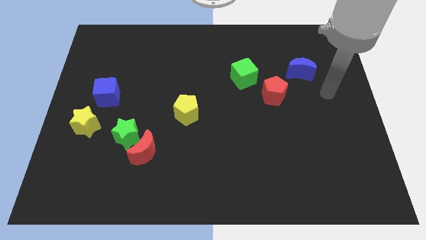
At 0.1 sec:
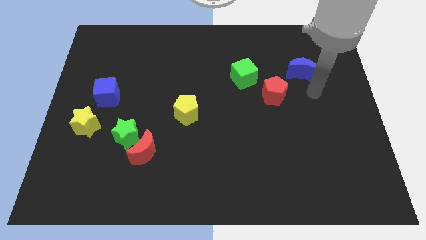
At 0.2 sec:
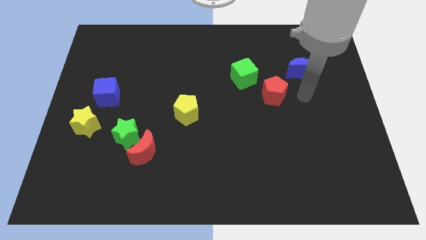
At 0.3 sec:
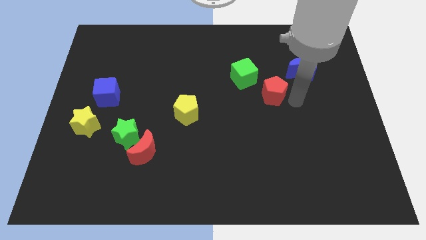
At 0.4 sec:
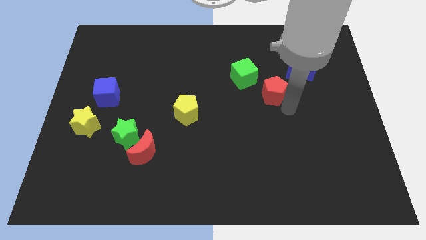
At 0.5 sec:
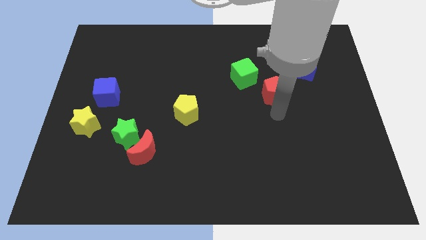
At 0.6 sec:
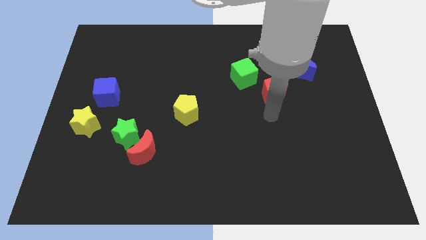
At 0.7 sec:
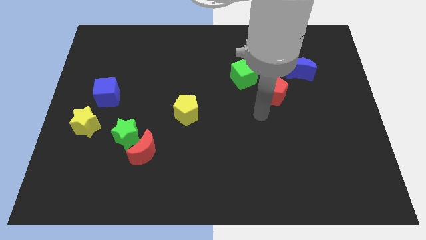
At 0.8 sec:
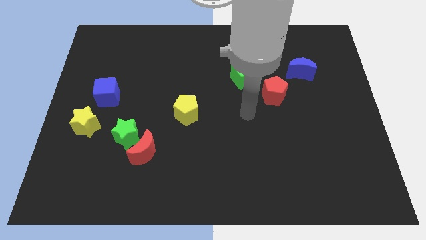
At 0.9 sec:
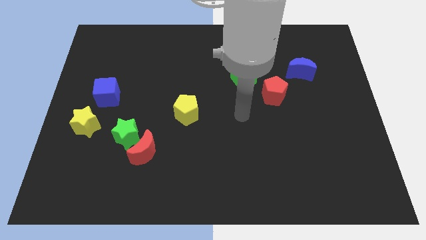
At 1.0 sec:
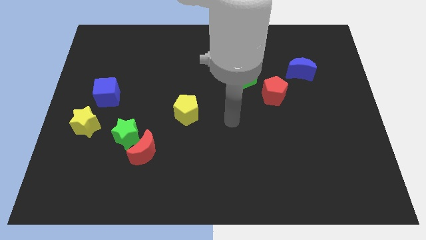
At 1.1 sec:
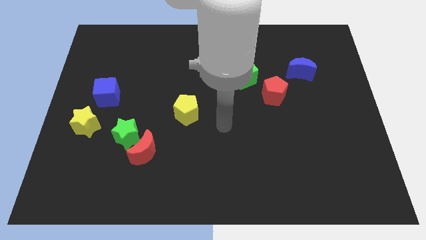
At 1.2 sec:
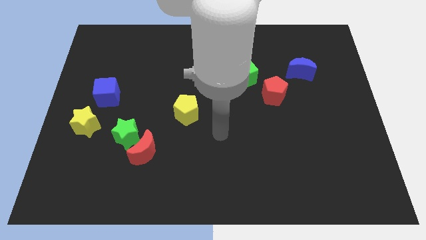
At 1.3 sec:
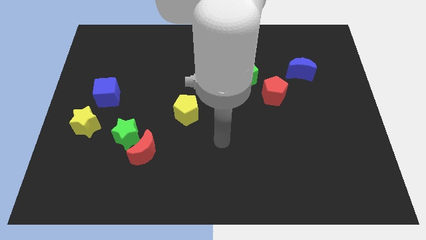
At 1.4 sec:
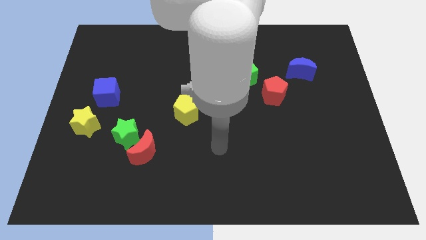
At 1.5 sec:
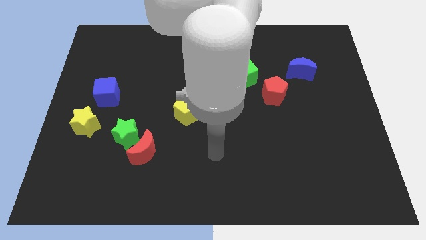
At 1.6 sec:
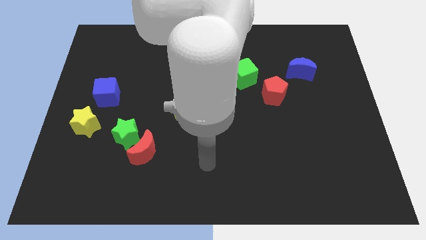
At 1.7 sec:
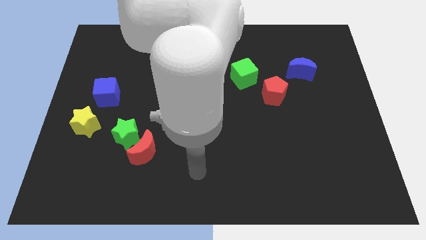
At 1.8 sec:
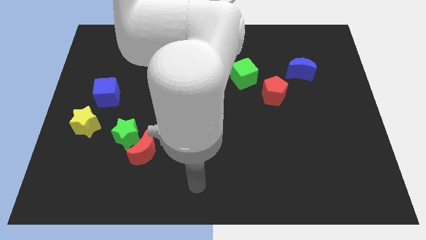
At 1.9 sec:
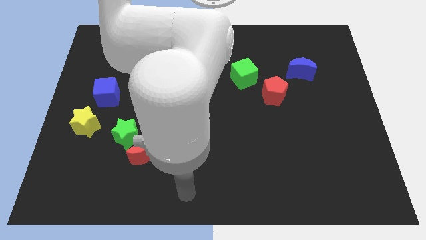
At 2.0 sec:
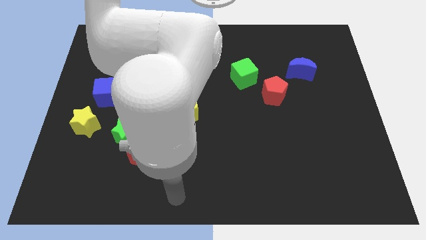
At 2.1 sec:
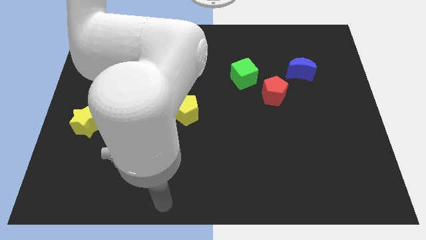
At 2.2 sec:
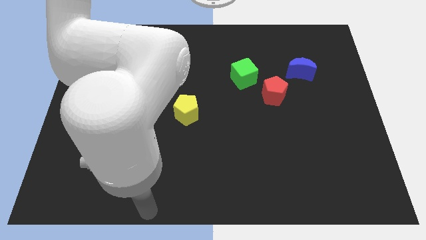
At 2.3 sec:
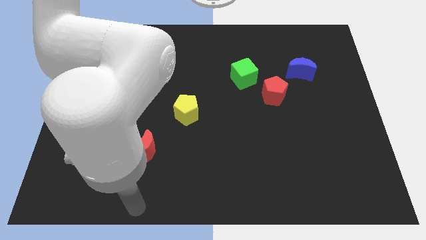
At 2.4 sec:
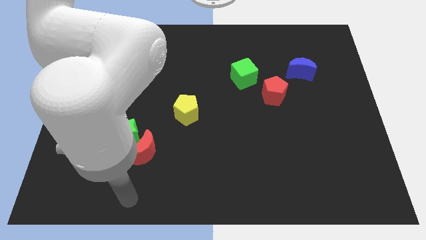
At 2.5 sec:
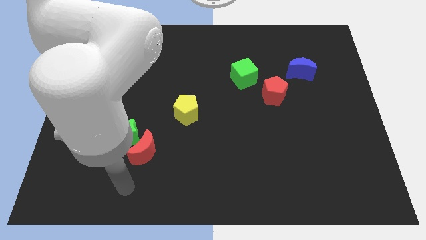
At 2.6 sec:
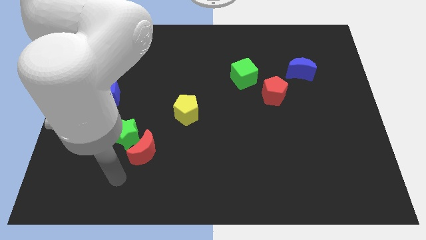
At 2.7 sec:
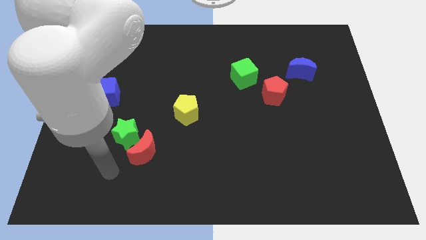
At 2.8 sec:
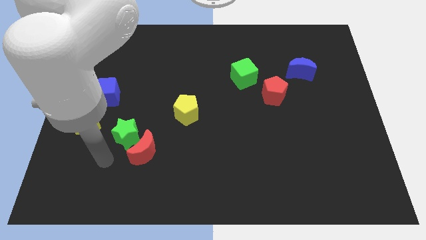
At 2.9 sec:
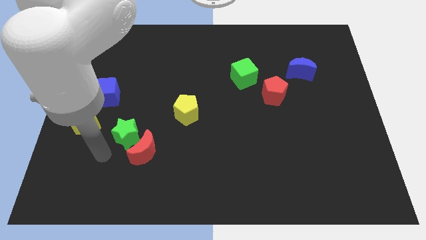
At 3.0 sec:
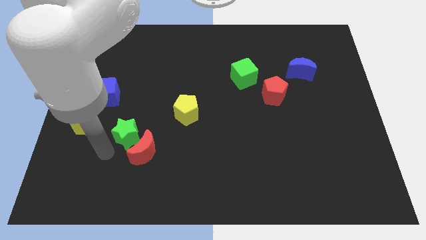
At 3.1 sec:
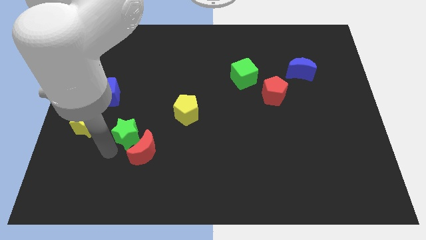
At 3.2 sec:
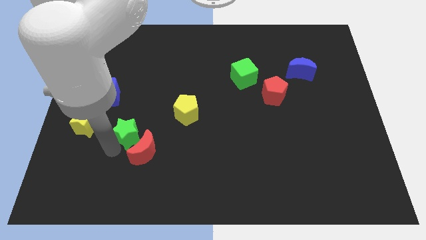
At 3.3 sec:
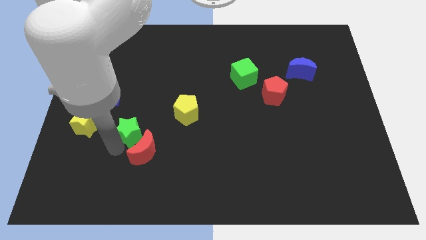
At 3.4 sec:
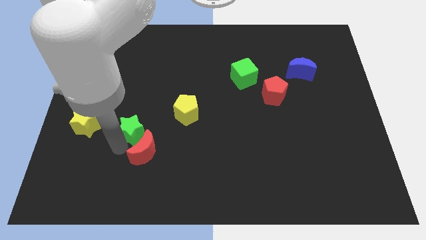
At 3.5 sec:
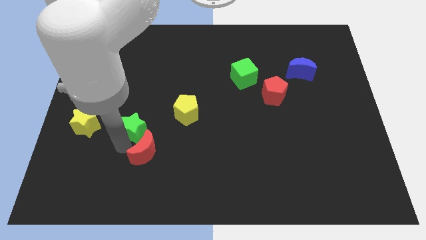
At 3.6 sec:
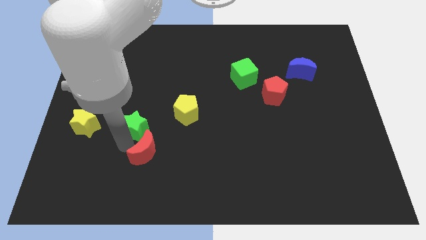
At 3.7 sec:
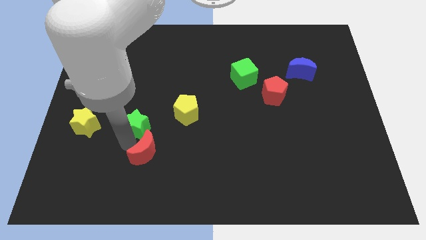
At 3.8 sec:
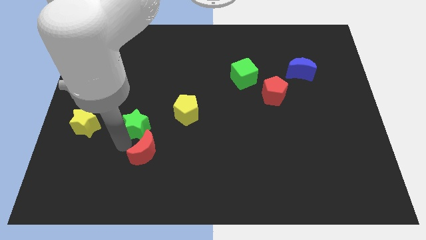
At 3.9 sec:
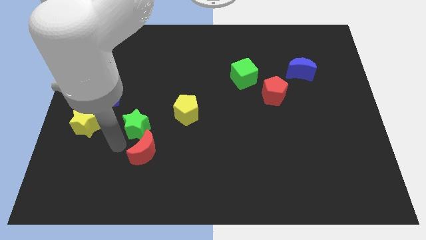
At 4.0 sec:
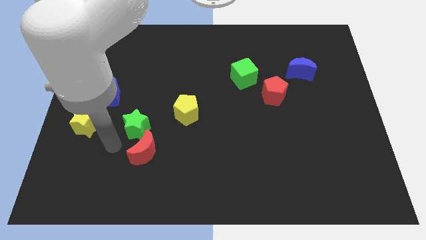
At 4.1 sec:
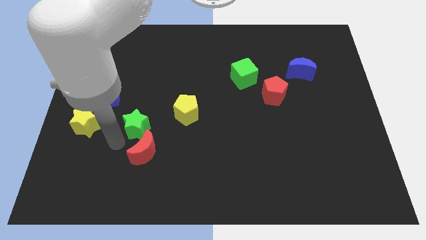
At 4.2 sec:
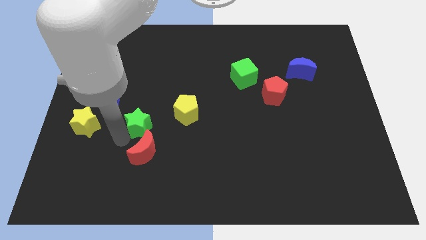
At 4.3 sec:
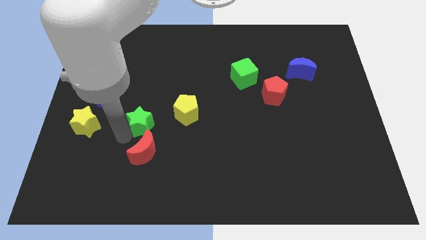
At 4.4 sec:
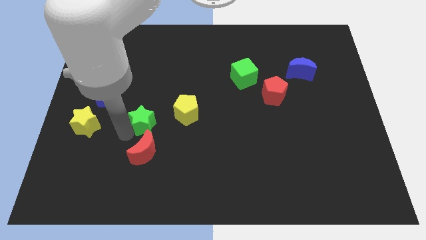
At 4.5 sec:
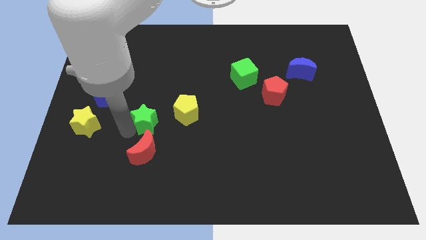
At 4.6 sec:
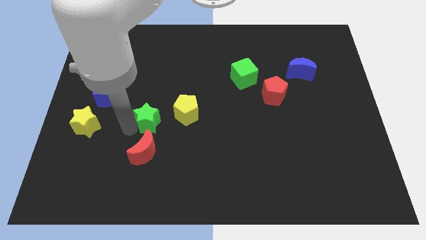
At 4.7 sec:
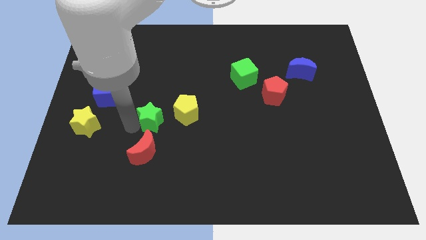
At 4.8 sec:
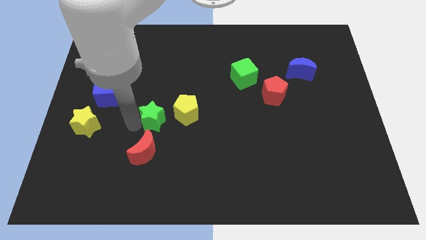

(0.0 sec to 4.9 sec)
slide the green star up and right somewhat

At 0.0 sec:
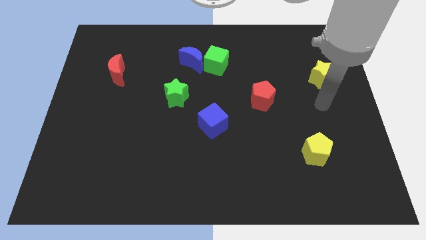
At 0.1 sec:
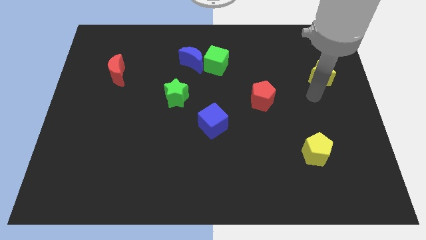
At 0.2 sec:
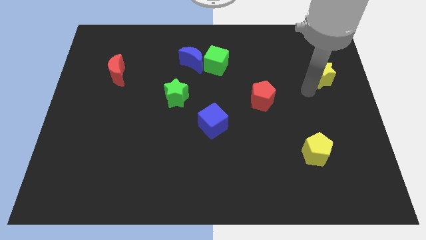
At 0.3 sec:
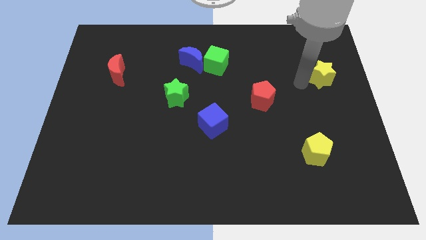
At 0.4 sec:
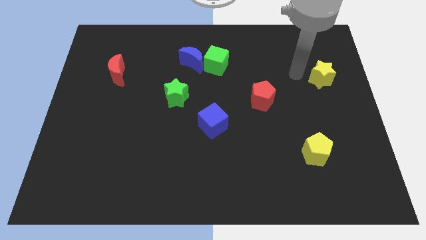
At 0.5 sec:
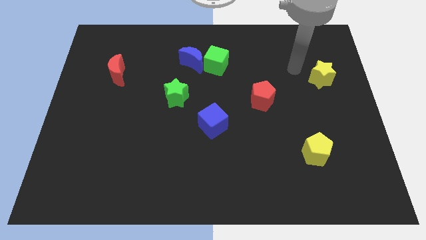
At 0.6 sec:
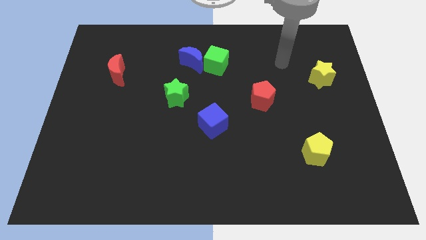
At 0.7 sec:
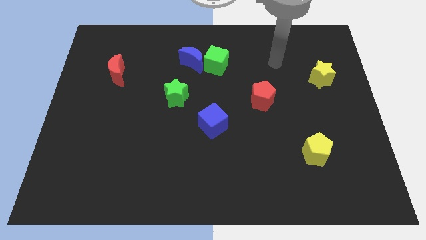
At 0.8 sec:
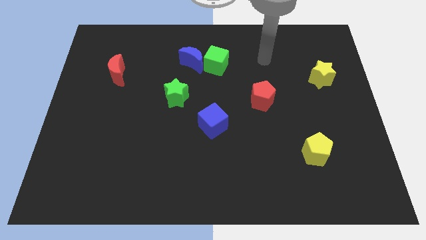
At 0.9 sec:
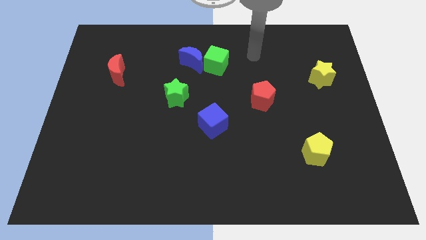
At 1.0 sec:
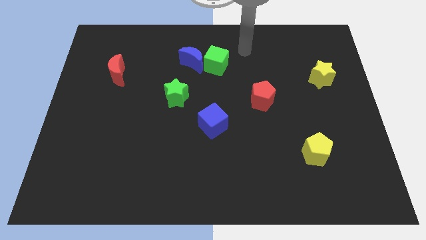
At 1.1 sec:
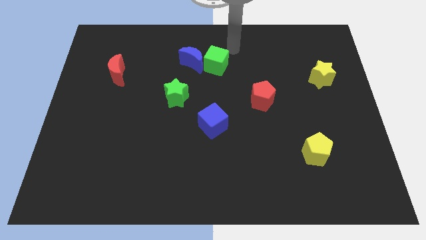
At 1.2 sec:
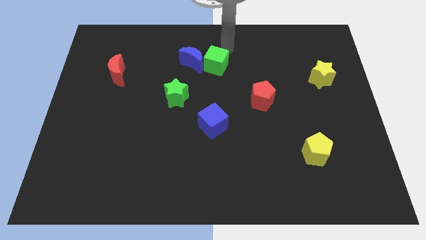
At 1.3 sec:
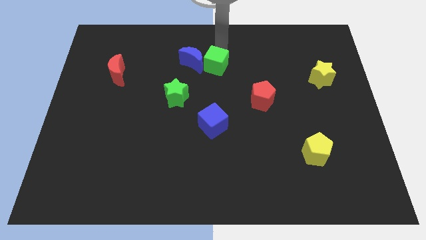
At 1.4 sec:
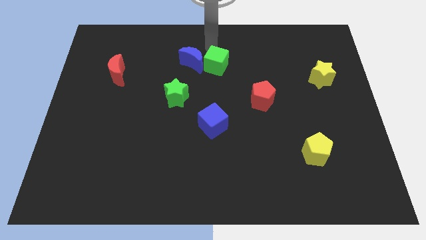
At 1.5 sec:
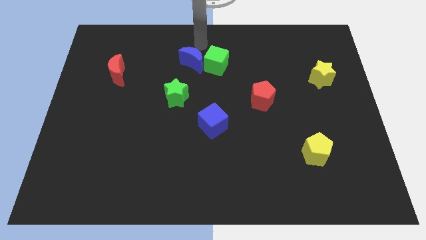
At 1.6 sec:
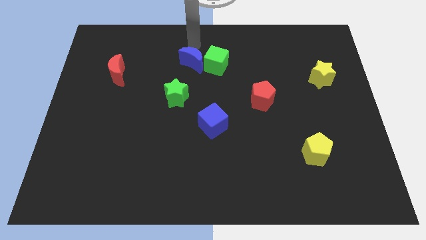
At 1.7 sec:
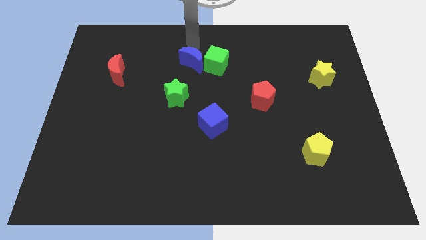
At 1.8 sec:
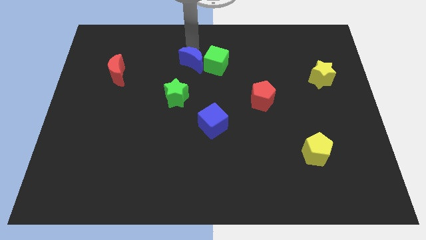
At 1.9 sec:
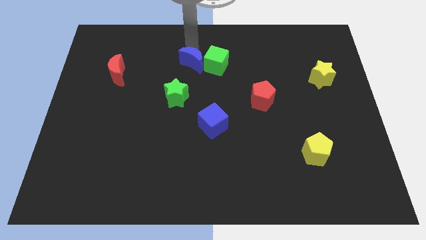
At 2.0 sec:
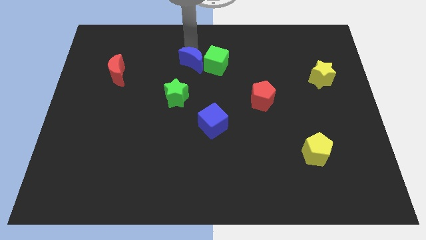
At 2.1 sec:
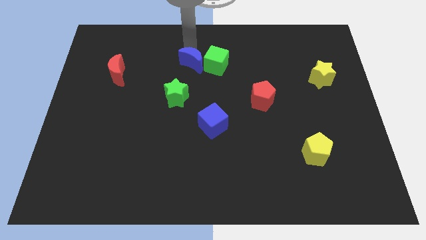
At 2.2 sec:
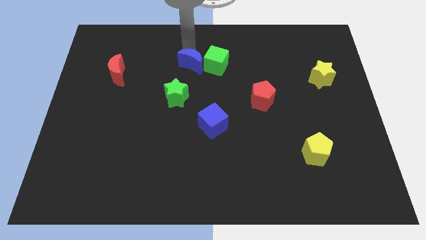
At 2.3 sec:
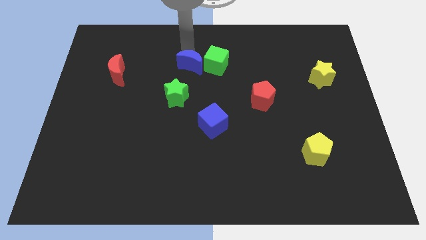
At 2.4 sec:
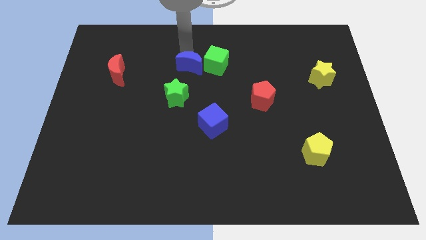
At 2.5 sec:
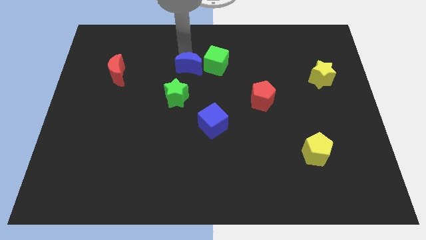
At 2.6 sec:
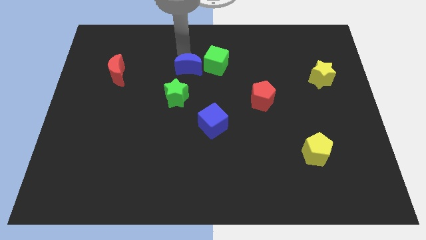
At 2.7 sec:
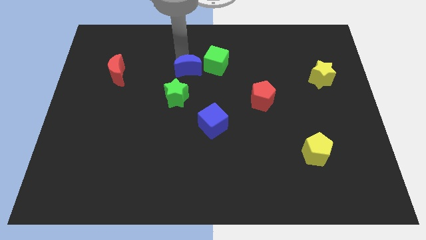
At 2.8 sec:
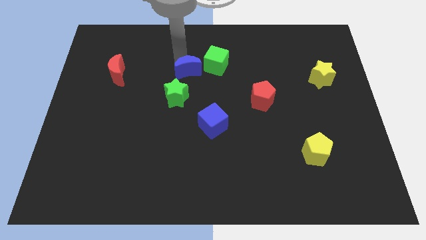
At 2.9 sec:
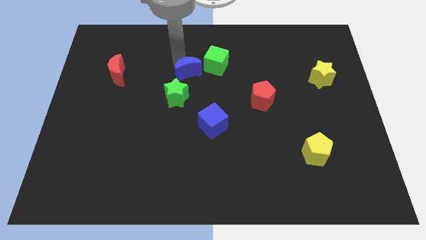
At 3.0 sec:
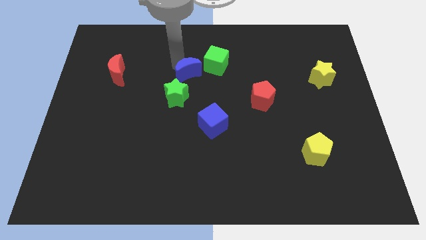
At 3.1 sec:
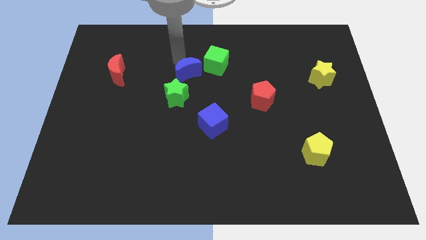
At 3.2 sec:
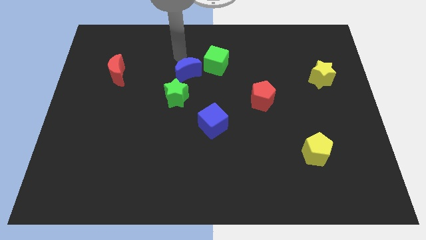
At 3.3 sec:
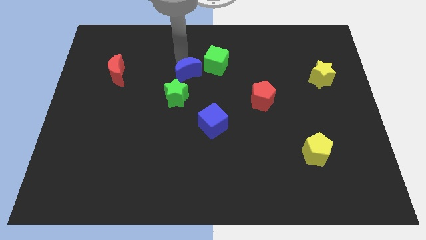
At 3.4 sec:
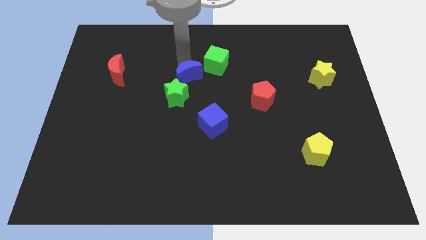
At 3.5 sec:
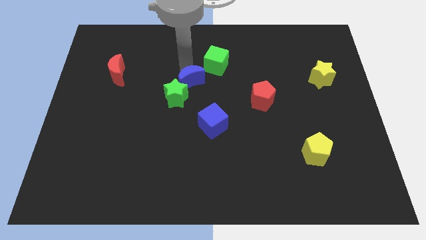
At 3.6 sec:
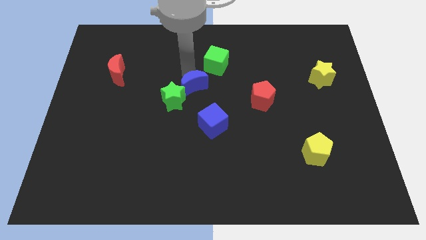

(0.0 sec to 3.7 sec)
push the blue moon a bit down

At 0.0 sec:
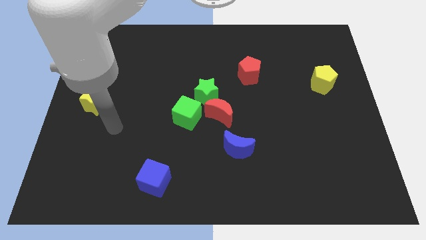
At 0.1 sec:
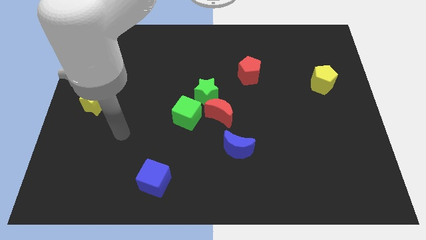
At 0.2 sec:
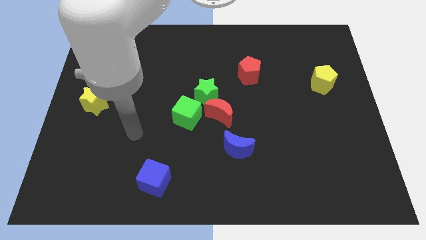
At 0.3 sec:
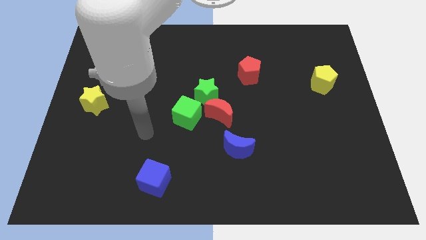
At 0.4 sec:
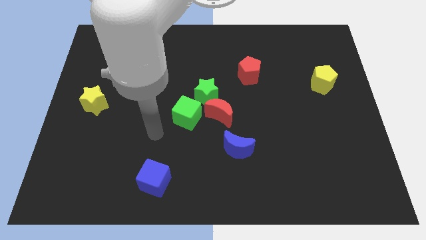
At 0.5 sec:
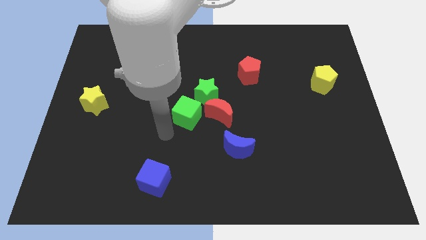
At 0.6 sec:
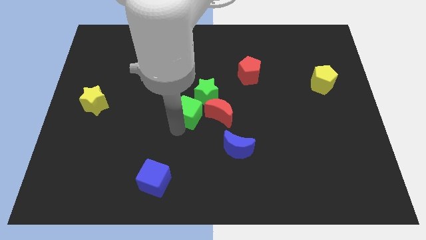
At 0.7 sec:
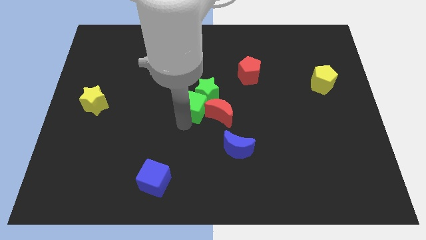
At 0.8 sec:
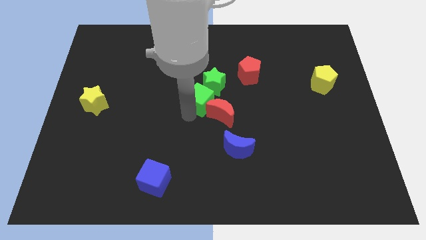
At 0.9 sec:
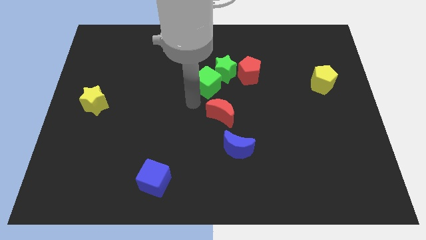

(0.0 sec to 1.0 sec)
push the green star a bit up and right
